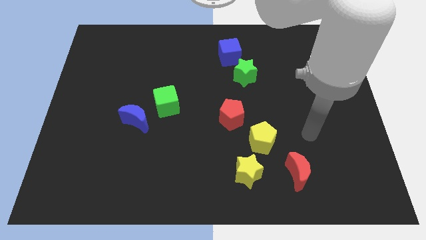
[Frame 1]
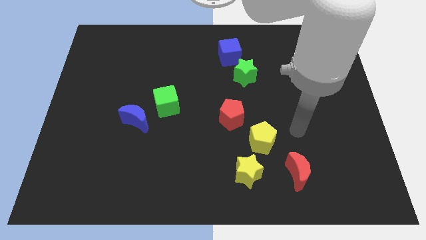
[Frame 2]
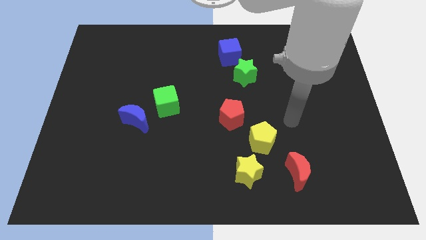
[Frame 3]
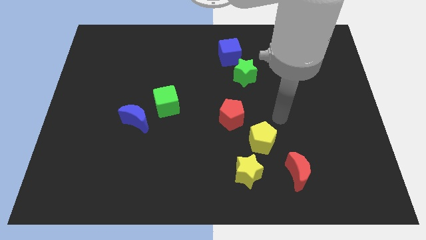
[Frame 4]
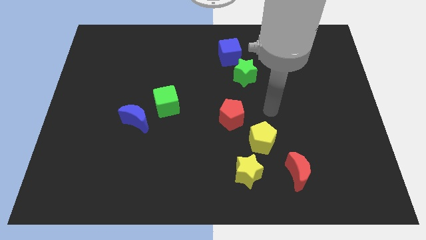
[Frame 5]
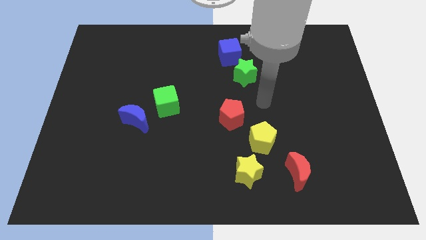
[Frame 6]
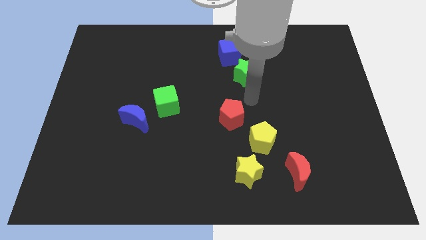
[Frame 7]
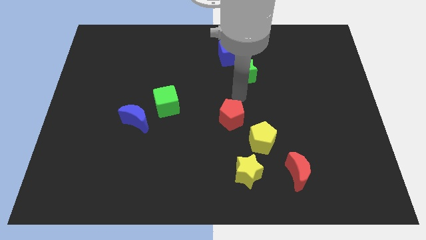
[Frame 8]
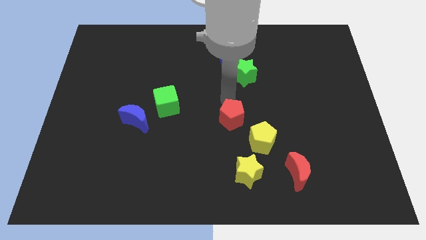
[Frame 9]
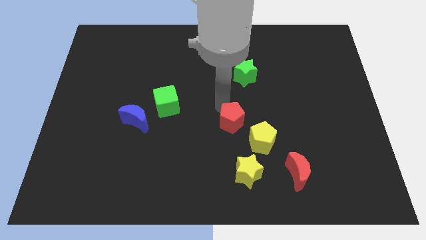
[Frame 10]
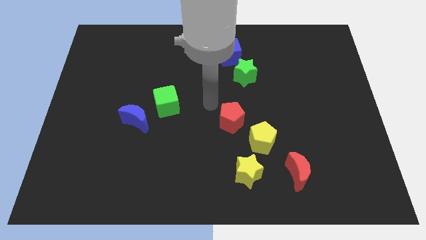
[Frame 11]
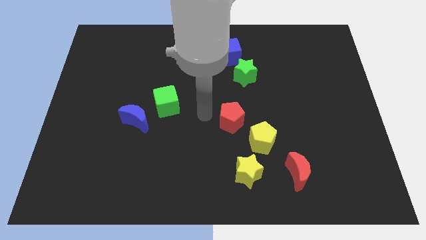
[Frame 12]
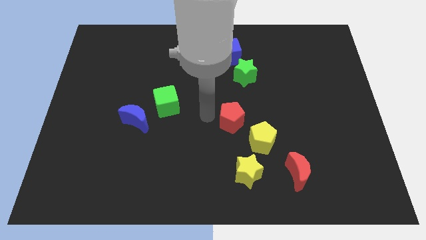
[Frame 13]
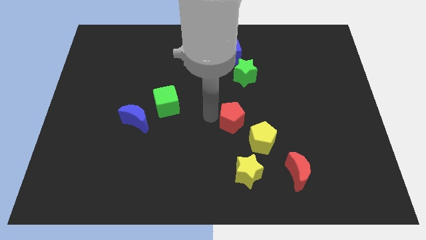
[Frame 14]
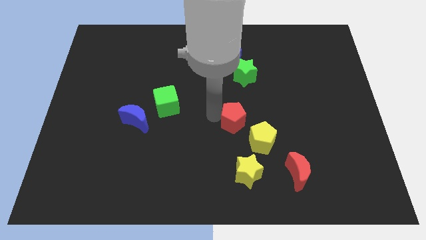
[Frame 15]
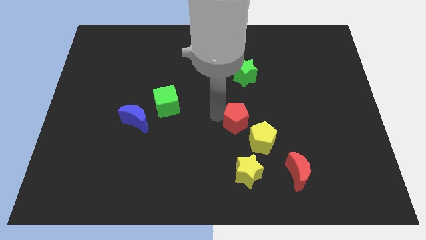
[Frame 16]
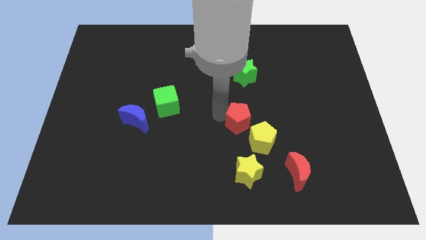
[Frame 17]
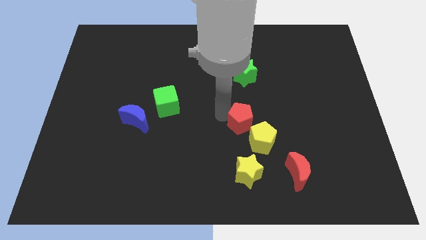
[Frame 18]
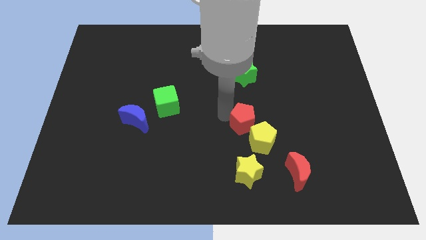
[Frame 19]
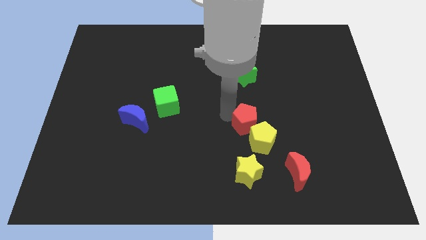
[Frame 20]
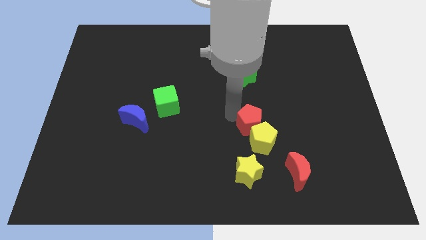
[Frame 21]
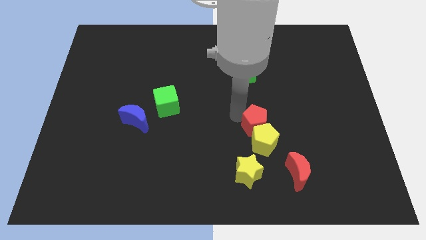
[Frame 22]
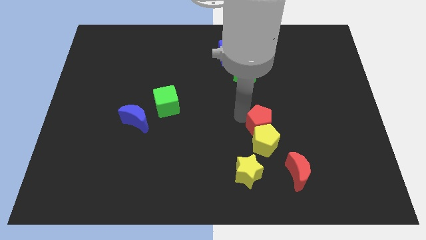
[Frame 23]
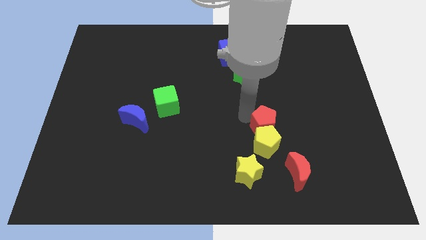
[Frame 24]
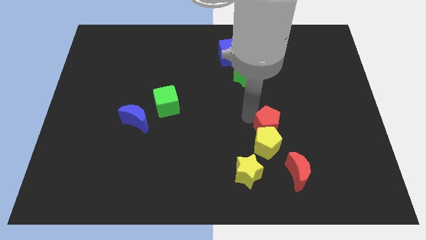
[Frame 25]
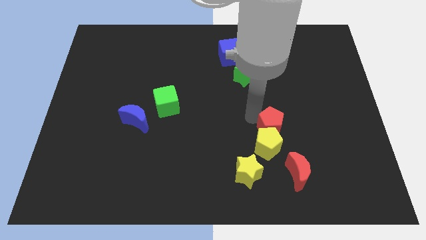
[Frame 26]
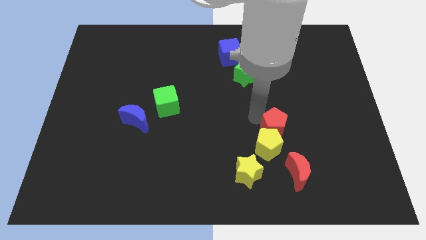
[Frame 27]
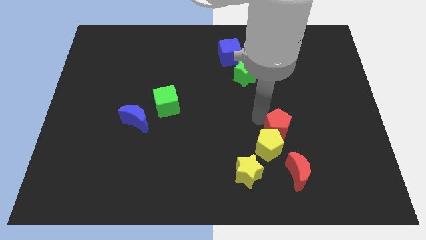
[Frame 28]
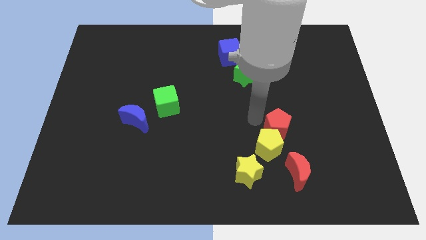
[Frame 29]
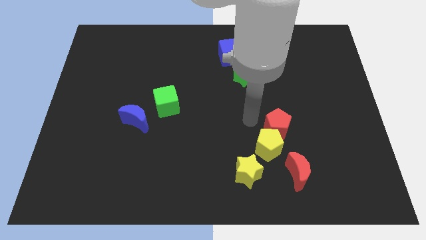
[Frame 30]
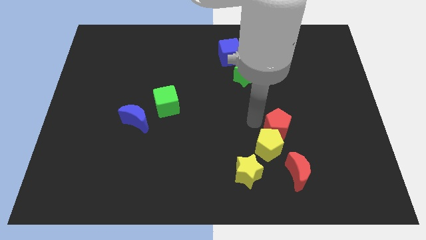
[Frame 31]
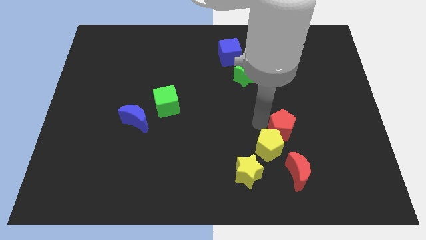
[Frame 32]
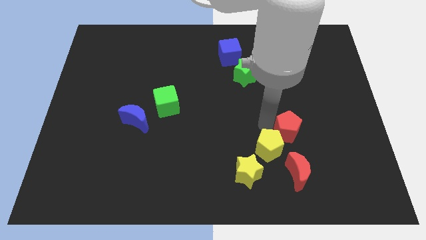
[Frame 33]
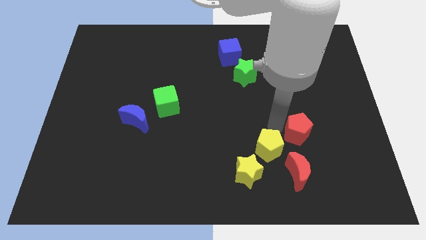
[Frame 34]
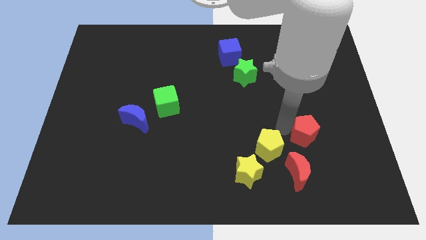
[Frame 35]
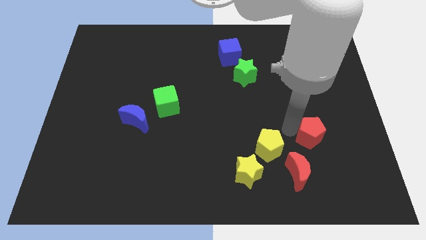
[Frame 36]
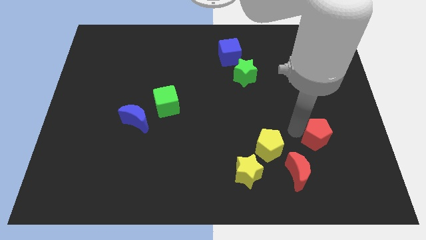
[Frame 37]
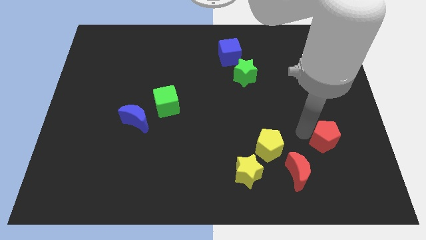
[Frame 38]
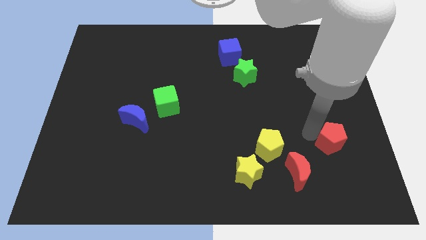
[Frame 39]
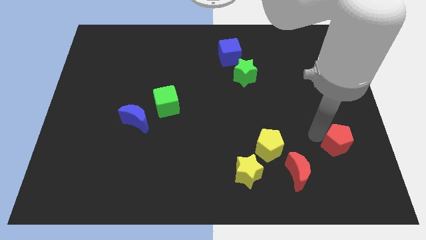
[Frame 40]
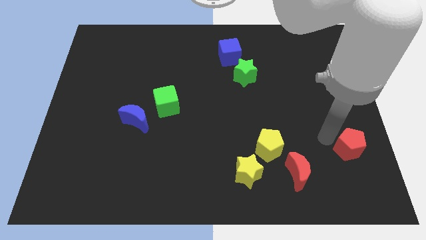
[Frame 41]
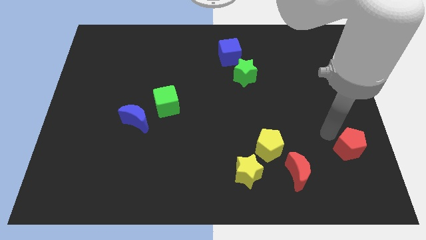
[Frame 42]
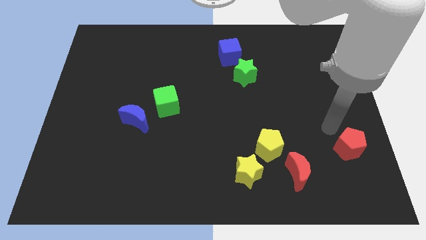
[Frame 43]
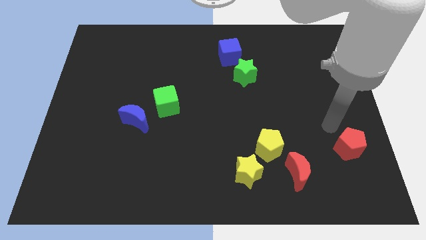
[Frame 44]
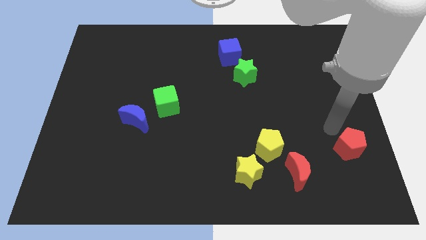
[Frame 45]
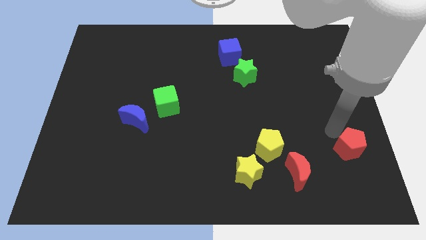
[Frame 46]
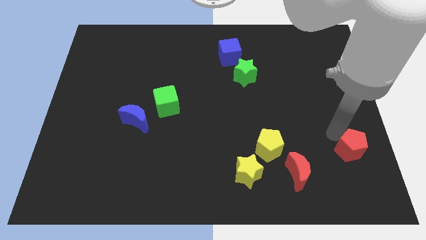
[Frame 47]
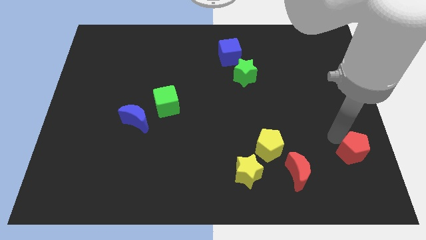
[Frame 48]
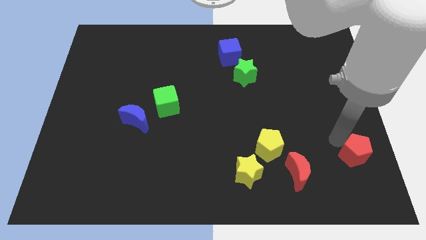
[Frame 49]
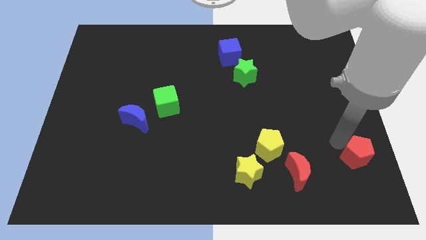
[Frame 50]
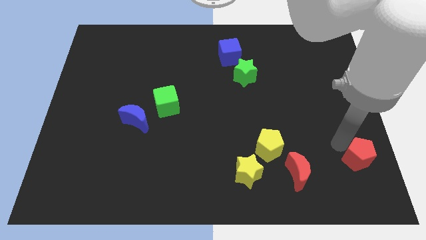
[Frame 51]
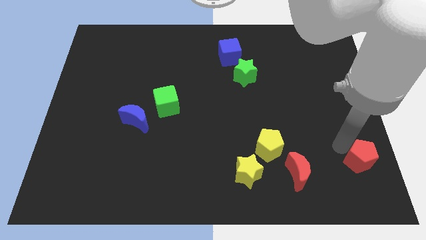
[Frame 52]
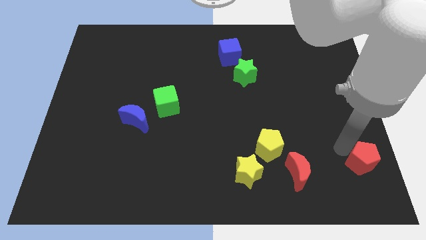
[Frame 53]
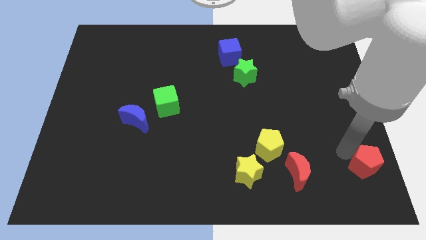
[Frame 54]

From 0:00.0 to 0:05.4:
put the red pentagon to the bottom right

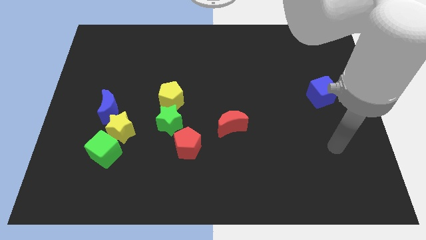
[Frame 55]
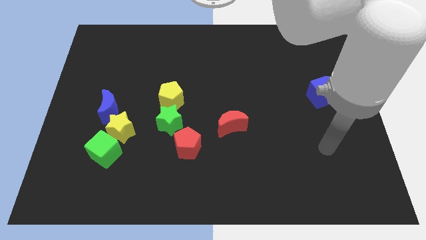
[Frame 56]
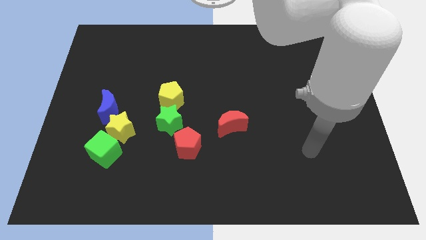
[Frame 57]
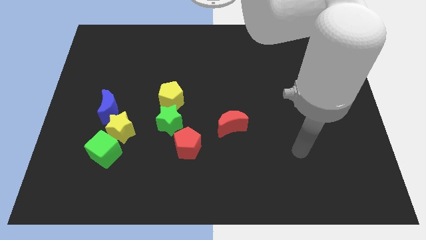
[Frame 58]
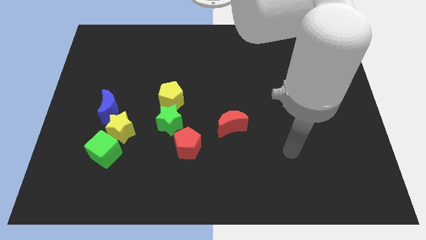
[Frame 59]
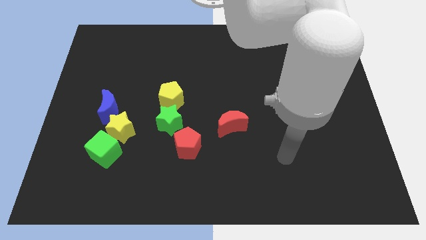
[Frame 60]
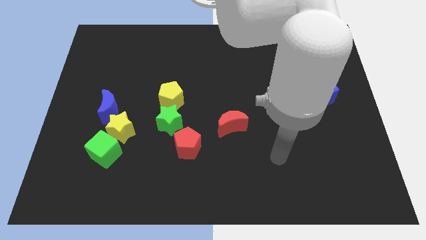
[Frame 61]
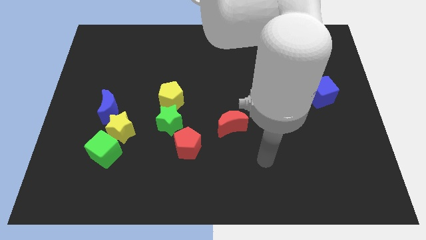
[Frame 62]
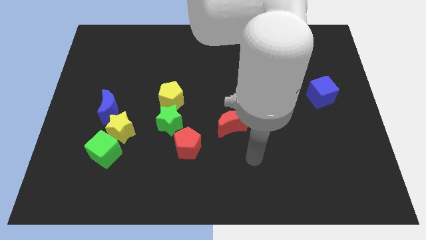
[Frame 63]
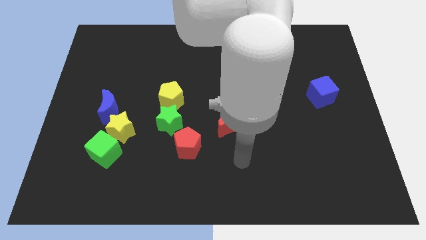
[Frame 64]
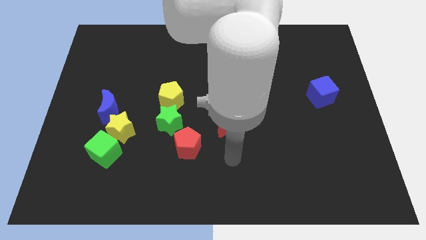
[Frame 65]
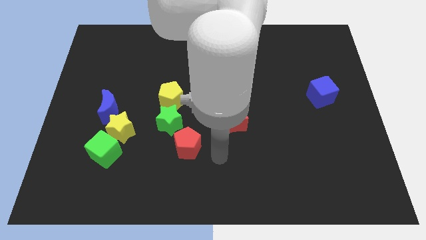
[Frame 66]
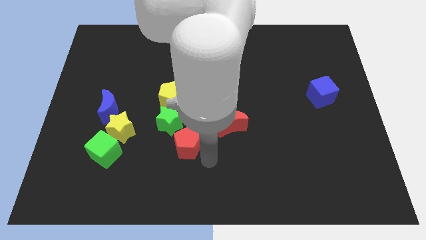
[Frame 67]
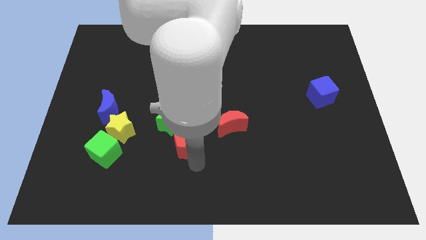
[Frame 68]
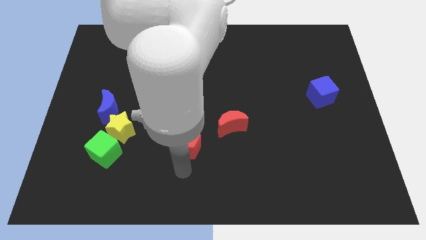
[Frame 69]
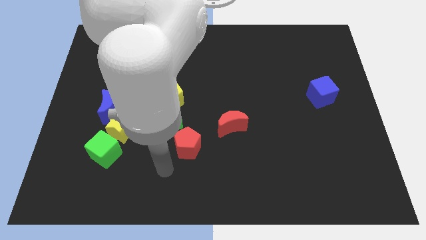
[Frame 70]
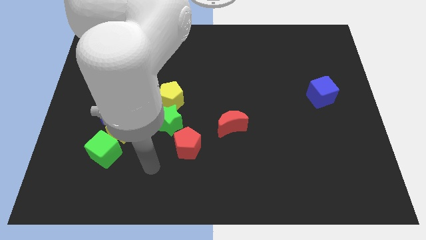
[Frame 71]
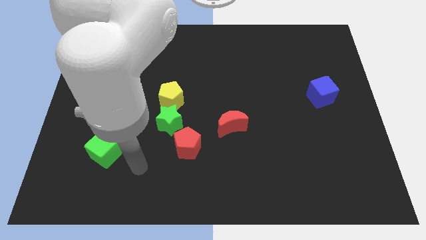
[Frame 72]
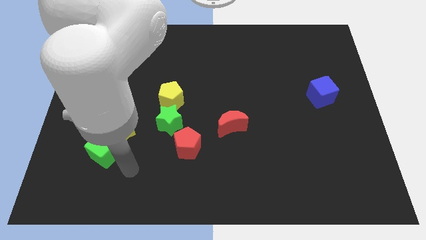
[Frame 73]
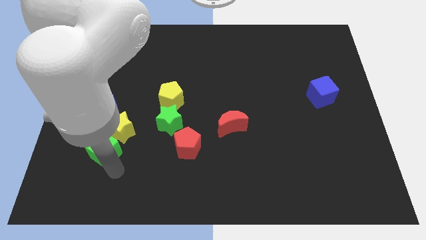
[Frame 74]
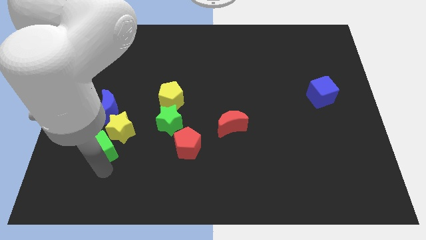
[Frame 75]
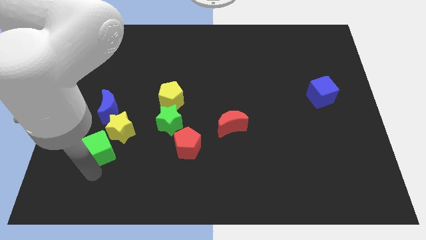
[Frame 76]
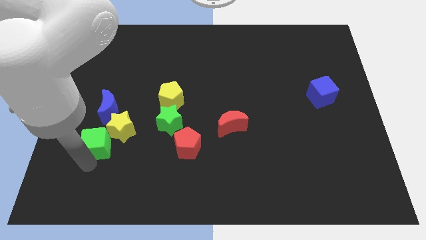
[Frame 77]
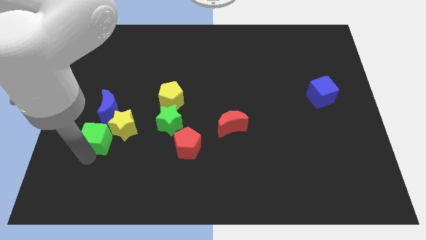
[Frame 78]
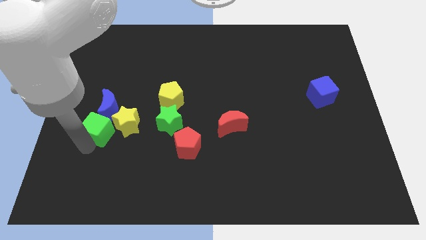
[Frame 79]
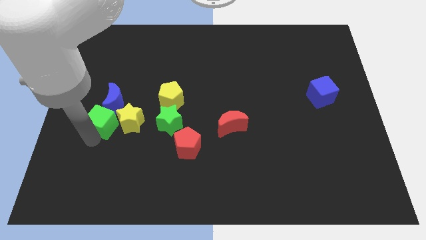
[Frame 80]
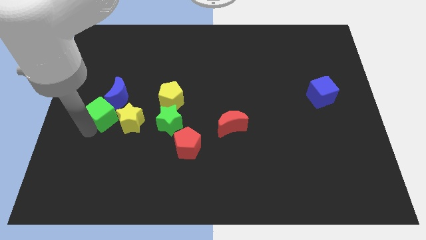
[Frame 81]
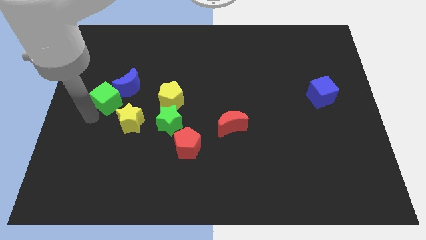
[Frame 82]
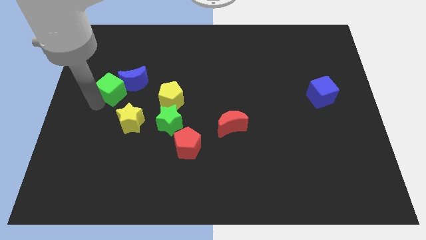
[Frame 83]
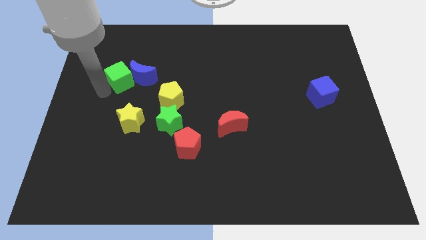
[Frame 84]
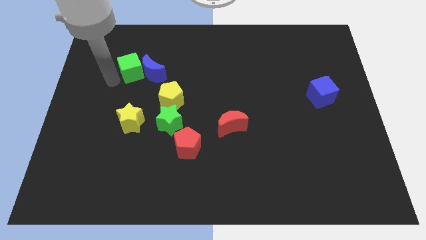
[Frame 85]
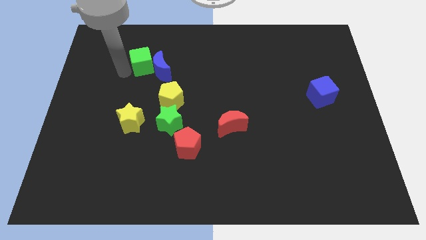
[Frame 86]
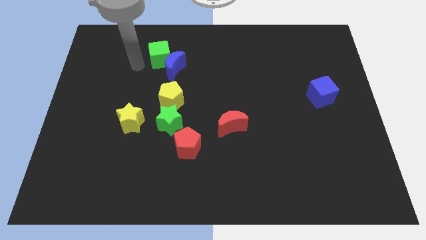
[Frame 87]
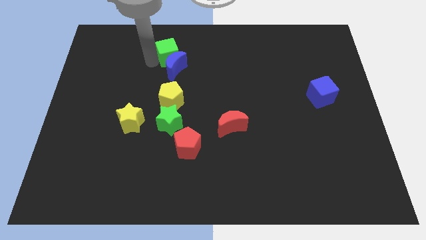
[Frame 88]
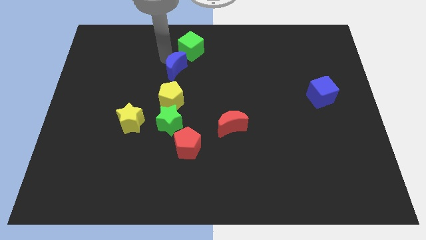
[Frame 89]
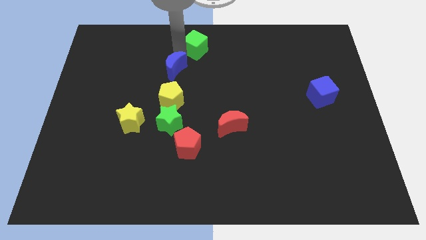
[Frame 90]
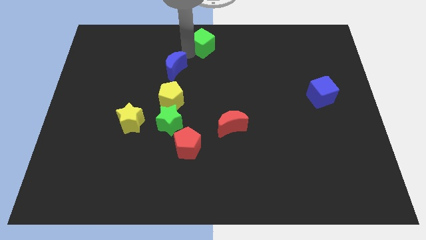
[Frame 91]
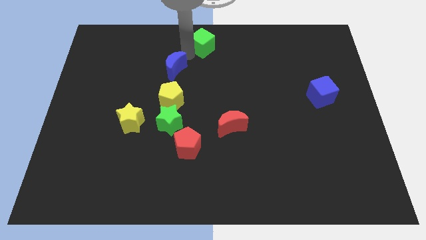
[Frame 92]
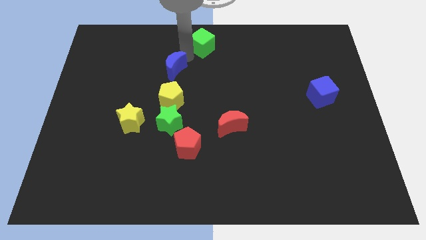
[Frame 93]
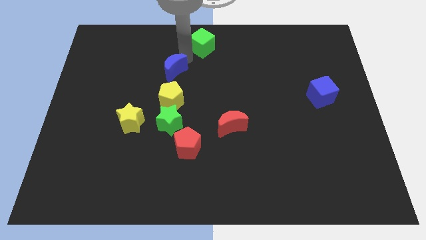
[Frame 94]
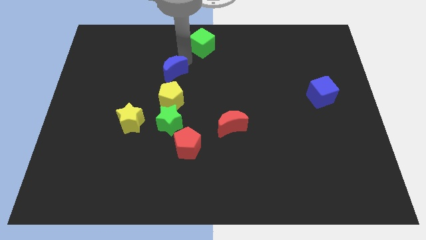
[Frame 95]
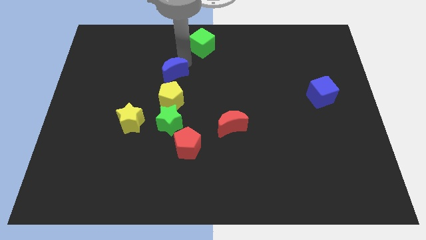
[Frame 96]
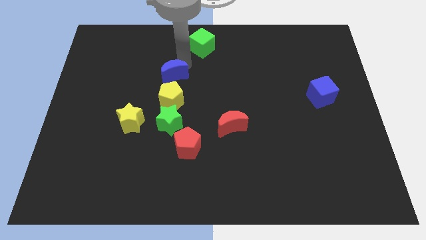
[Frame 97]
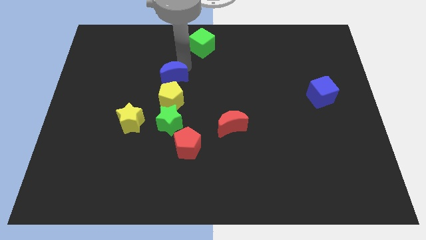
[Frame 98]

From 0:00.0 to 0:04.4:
push the blue moon to the middle of the board
